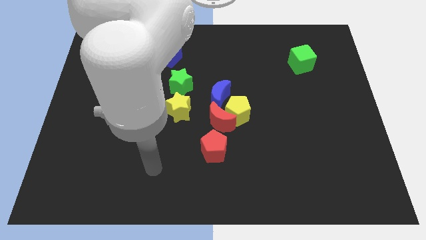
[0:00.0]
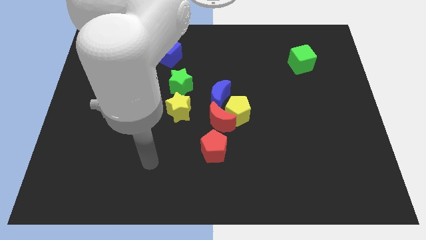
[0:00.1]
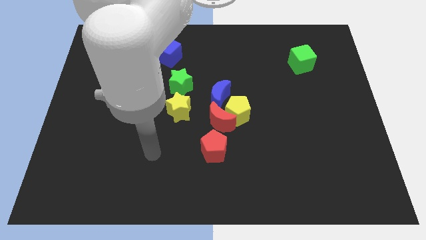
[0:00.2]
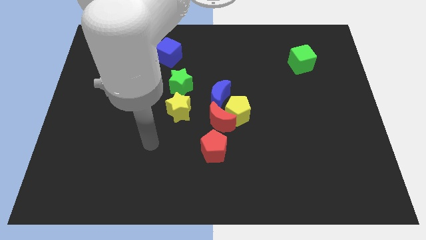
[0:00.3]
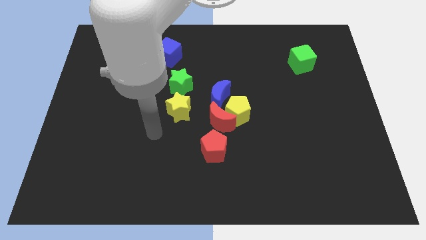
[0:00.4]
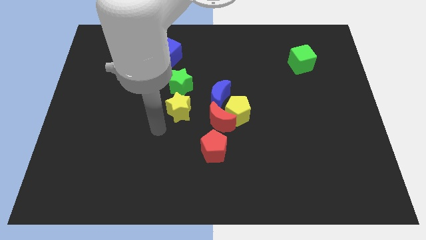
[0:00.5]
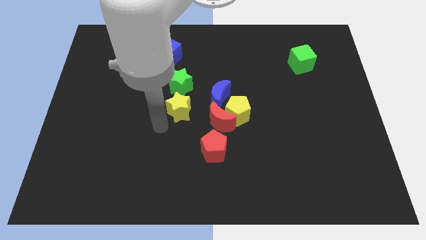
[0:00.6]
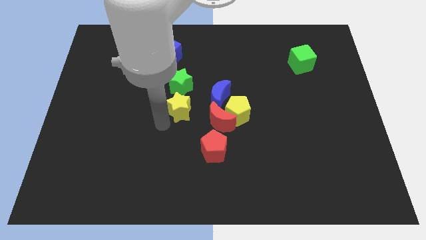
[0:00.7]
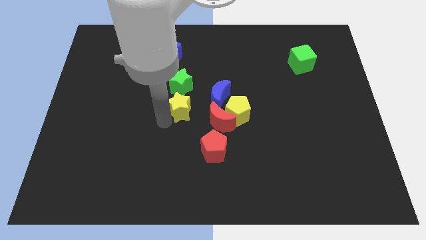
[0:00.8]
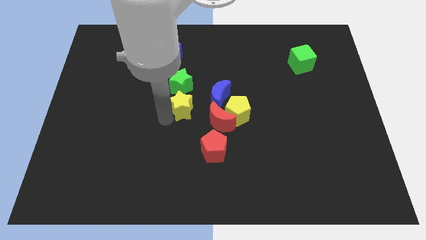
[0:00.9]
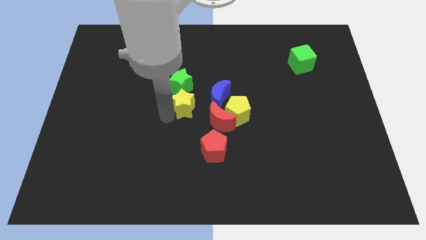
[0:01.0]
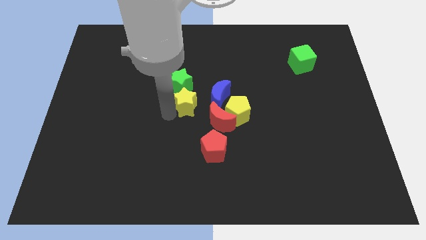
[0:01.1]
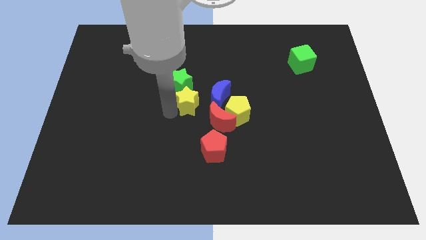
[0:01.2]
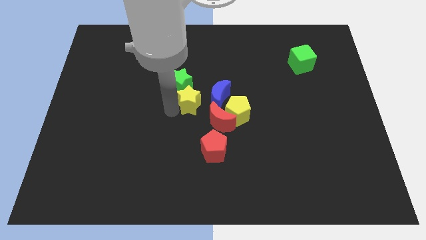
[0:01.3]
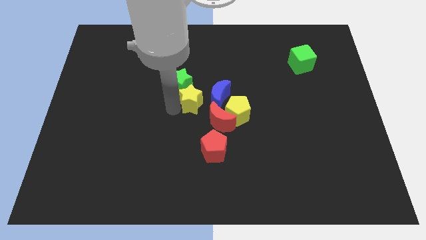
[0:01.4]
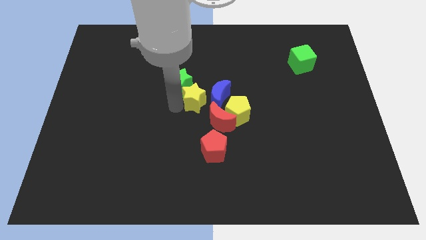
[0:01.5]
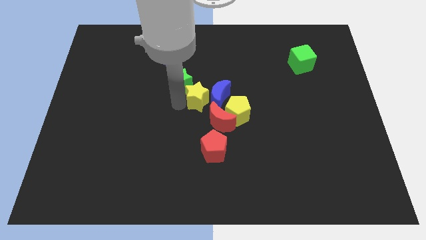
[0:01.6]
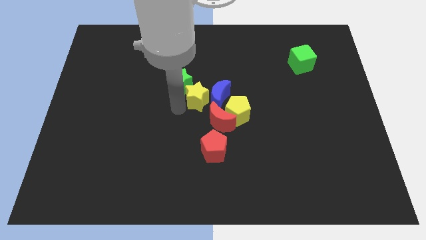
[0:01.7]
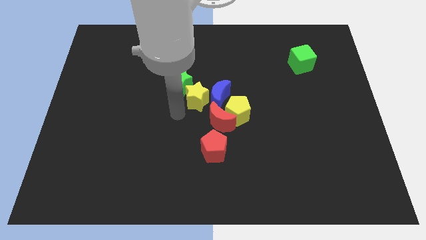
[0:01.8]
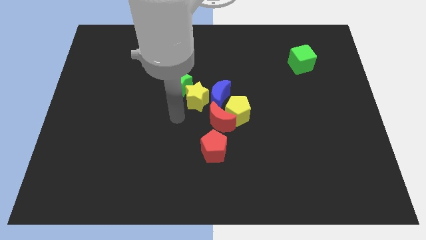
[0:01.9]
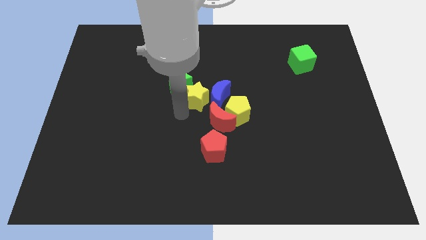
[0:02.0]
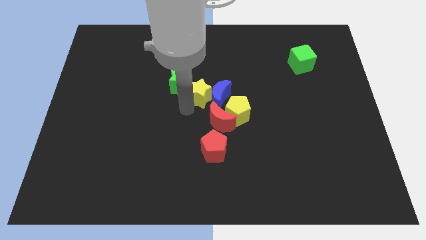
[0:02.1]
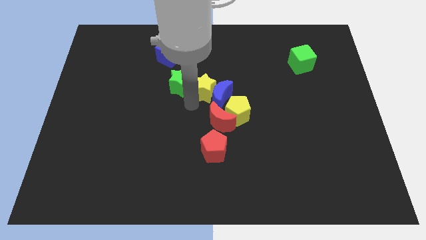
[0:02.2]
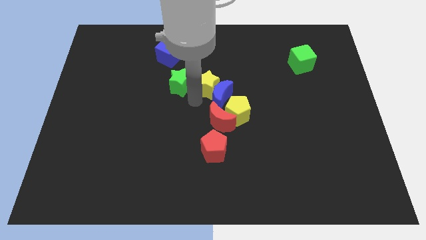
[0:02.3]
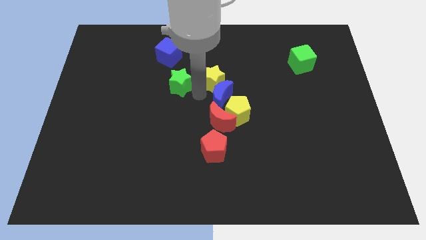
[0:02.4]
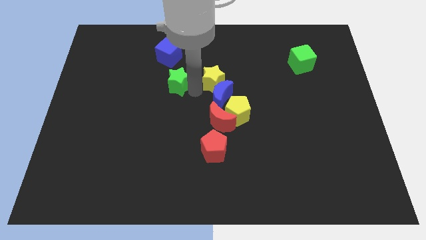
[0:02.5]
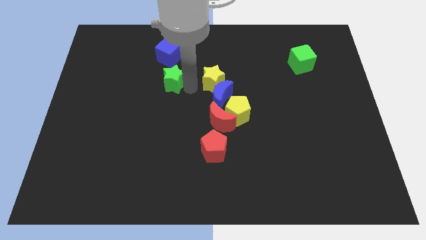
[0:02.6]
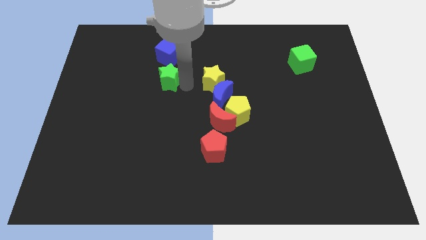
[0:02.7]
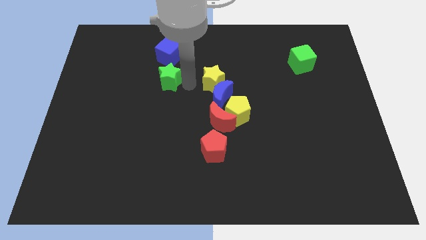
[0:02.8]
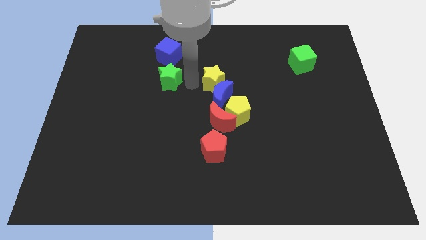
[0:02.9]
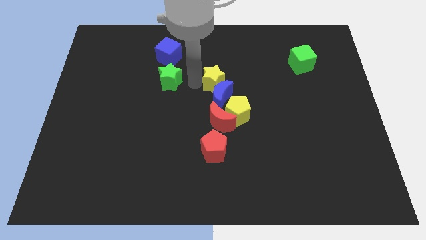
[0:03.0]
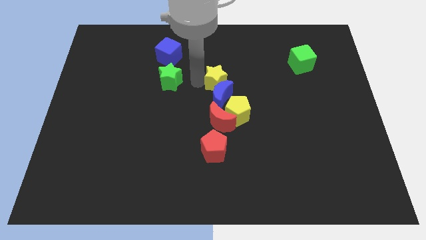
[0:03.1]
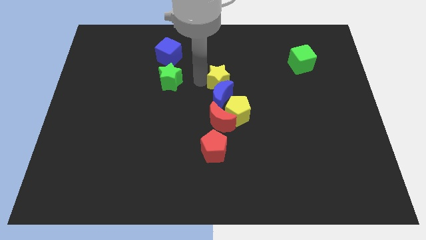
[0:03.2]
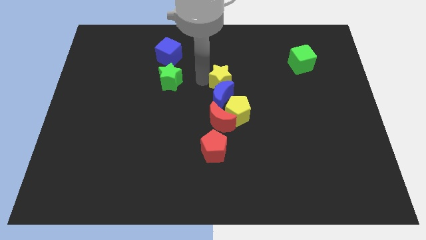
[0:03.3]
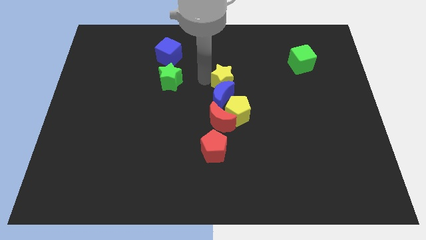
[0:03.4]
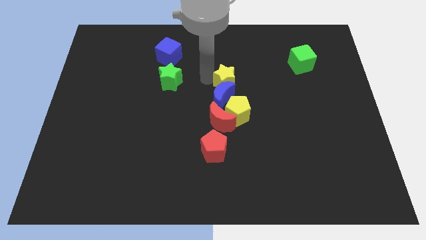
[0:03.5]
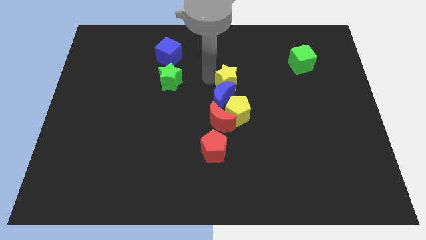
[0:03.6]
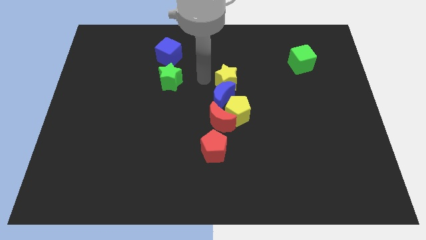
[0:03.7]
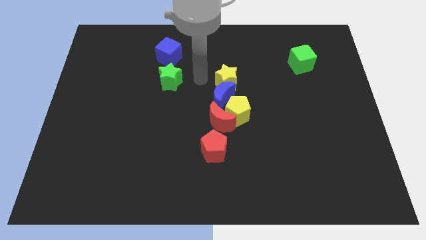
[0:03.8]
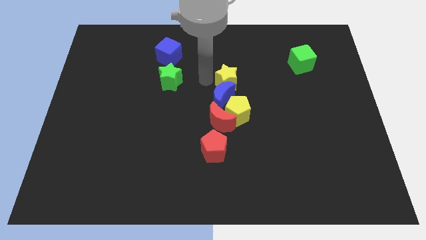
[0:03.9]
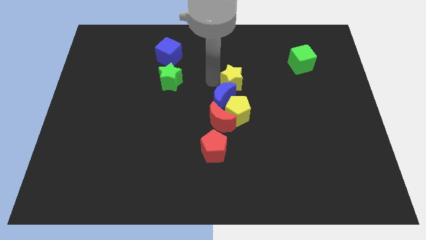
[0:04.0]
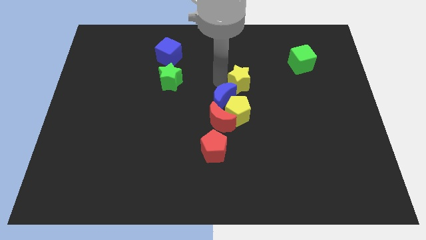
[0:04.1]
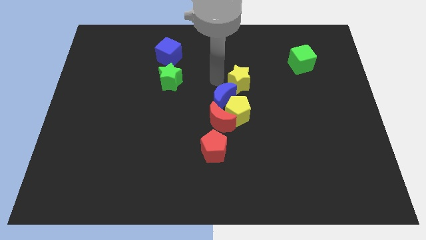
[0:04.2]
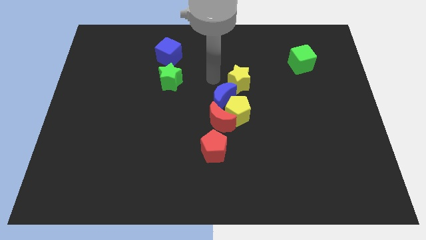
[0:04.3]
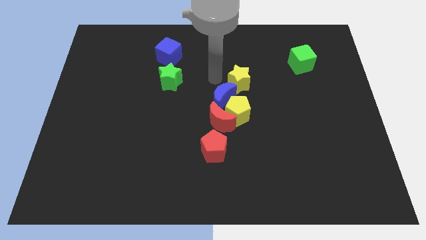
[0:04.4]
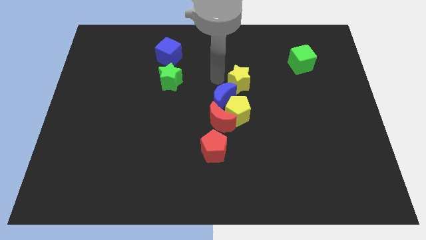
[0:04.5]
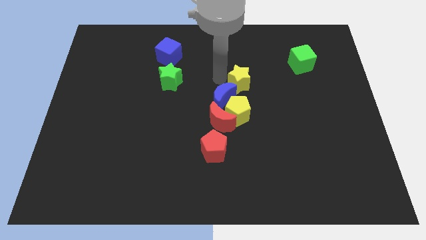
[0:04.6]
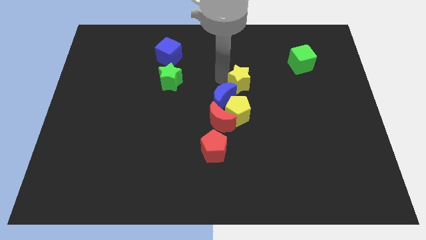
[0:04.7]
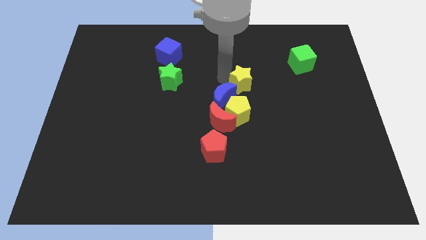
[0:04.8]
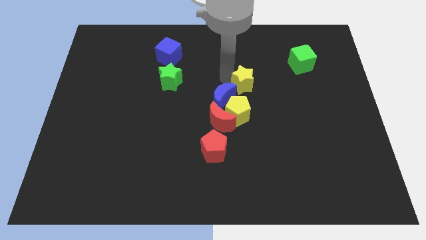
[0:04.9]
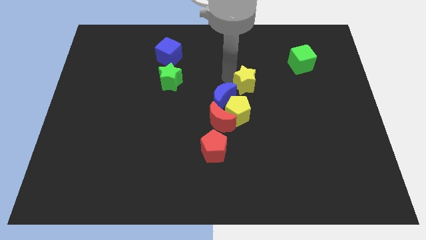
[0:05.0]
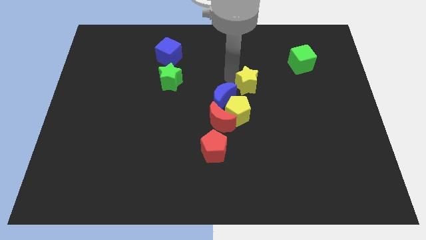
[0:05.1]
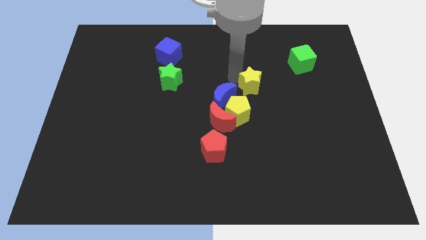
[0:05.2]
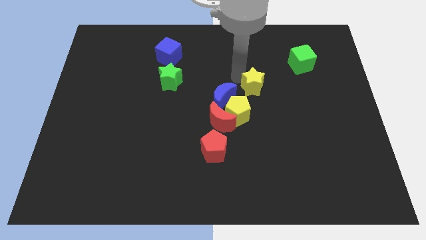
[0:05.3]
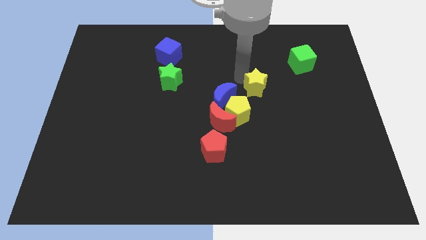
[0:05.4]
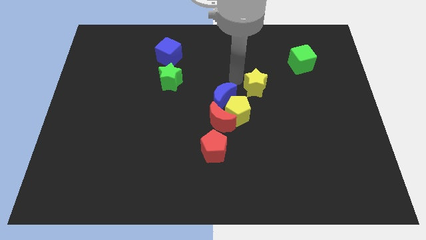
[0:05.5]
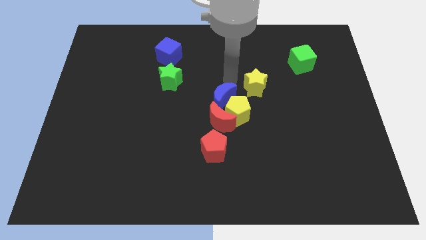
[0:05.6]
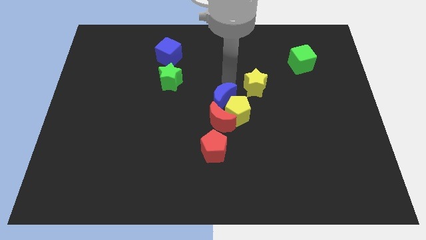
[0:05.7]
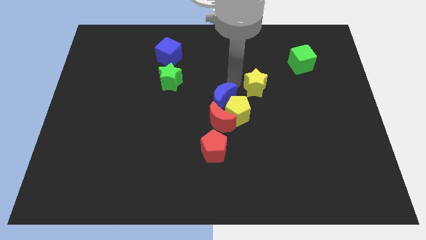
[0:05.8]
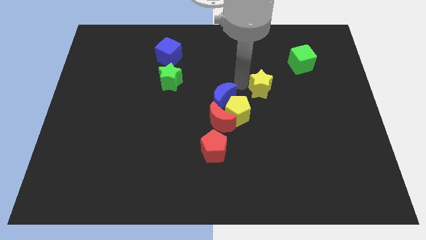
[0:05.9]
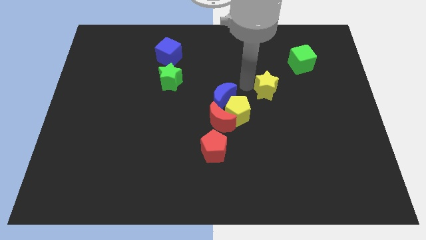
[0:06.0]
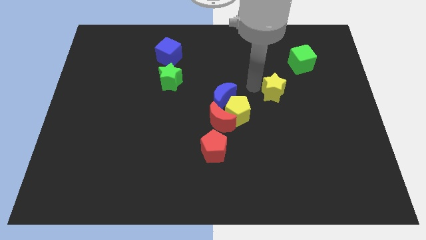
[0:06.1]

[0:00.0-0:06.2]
slide the yellow star right

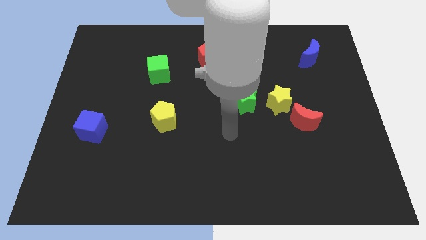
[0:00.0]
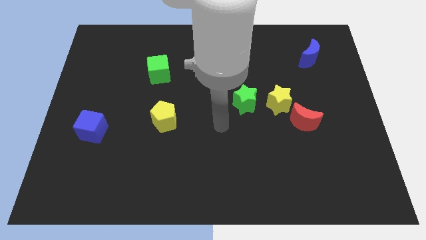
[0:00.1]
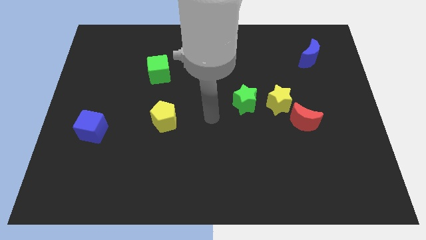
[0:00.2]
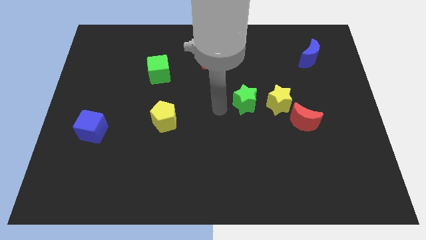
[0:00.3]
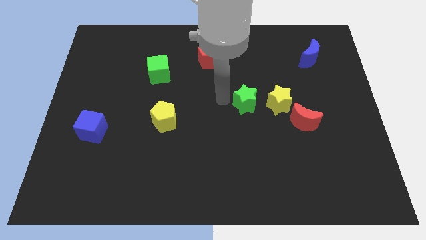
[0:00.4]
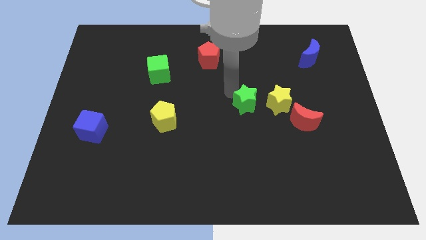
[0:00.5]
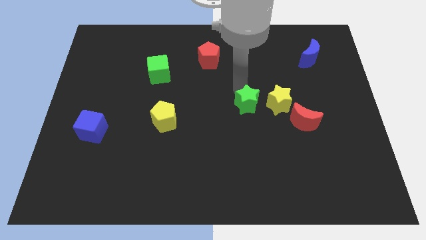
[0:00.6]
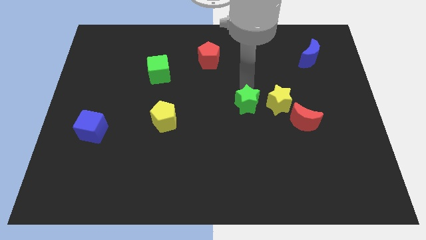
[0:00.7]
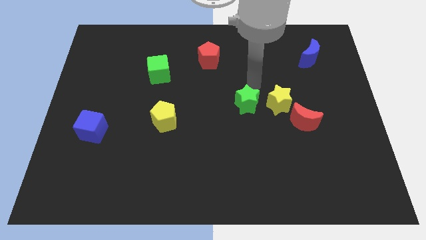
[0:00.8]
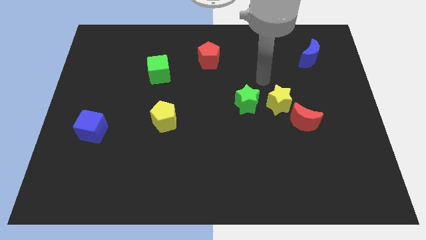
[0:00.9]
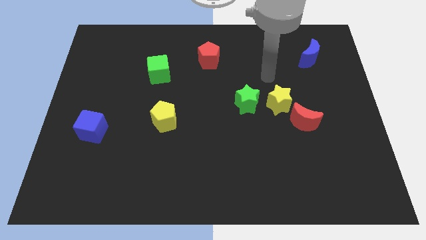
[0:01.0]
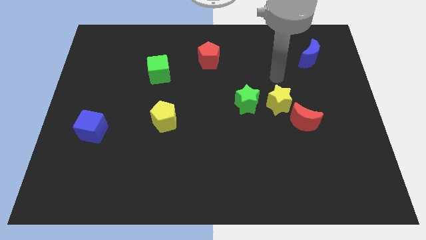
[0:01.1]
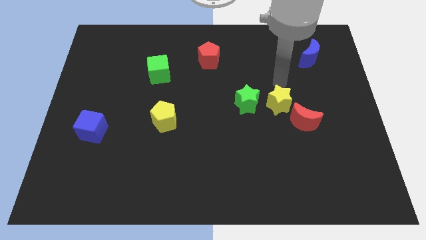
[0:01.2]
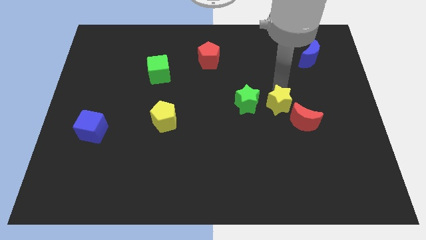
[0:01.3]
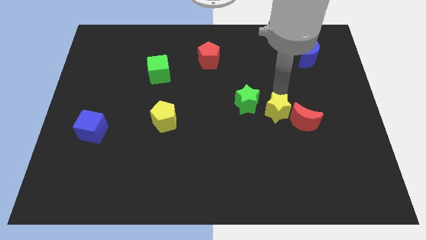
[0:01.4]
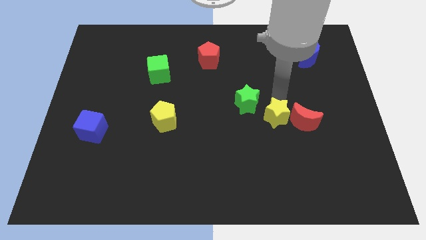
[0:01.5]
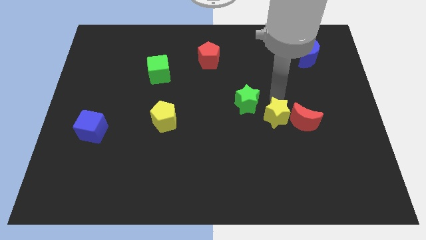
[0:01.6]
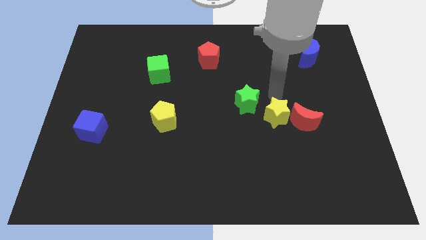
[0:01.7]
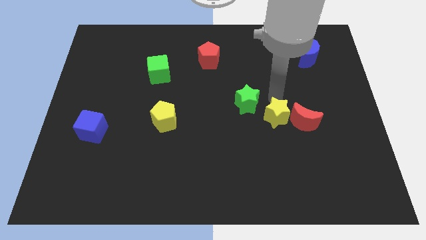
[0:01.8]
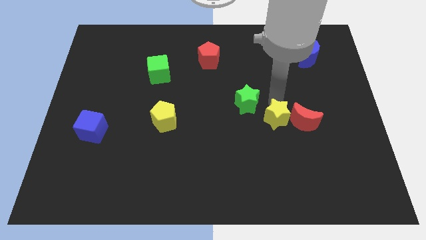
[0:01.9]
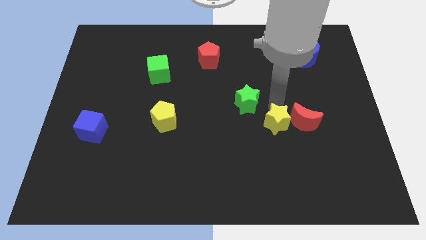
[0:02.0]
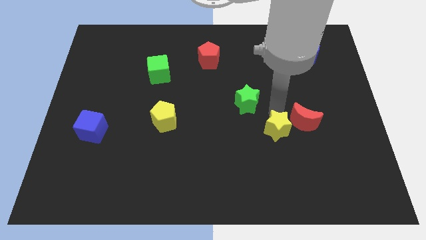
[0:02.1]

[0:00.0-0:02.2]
move the yellow star a little down
